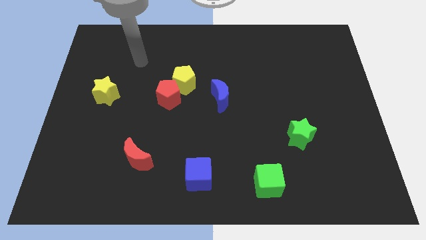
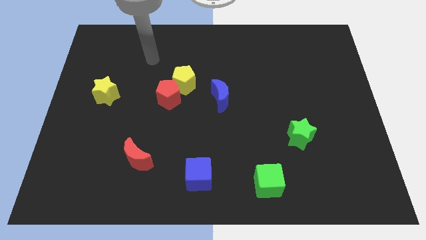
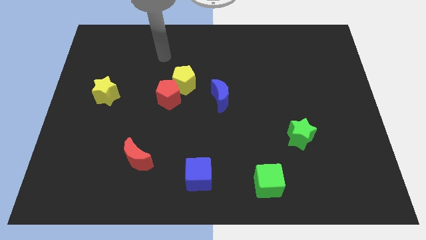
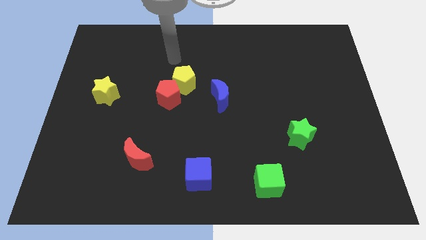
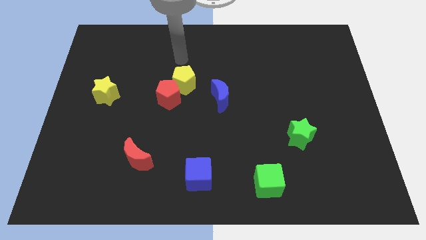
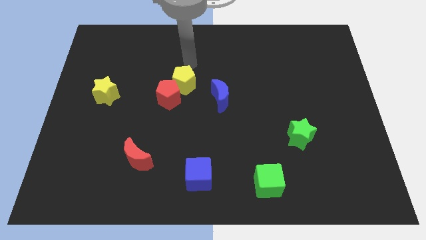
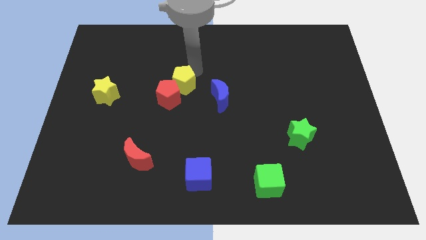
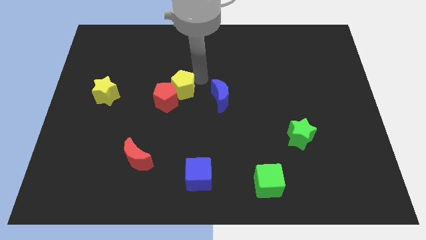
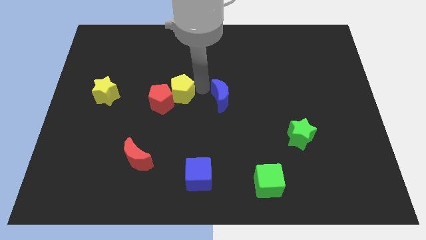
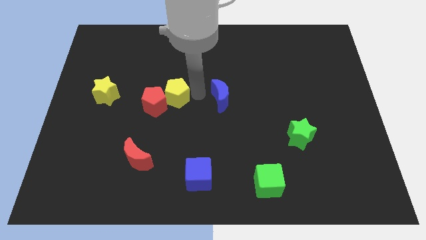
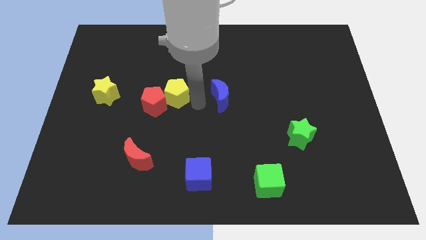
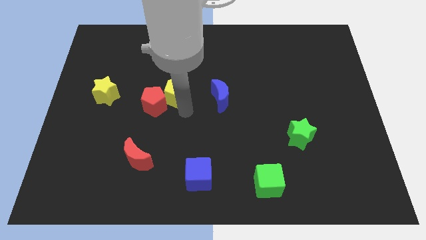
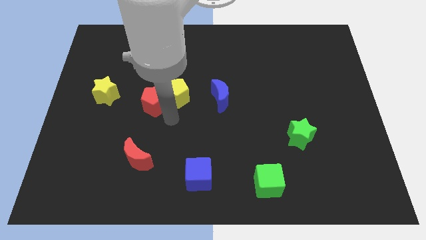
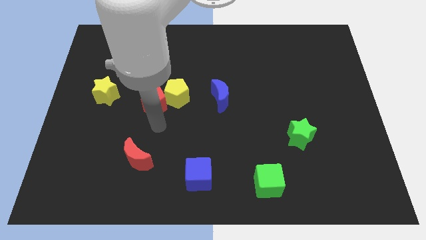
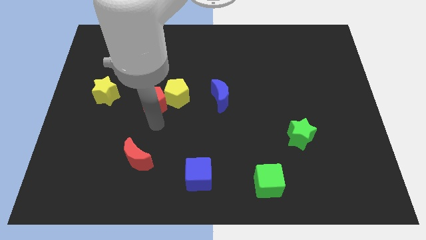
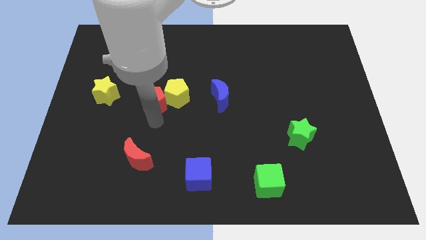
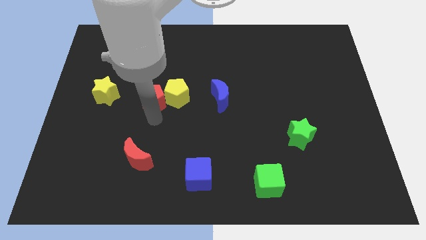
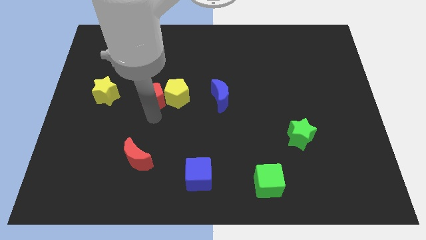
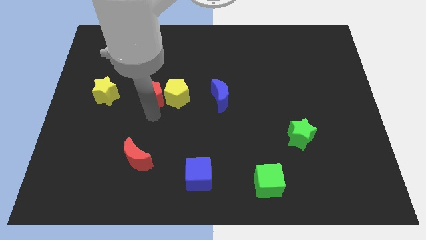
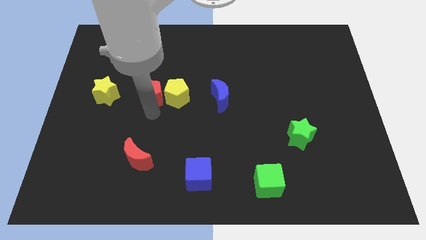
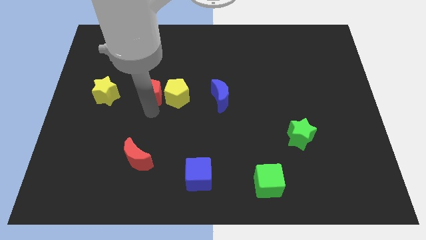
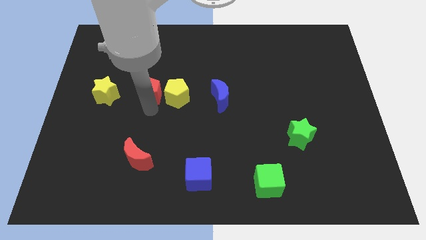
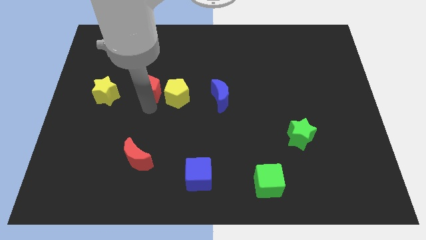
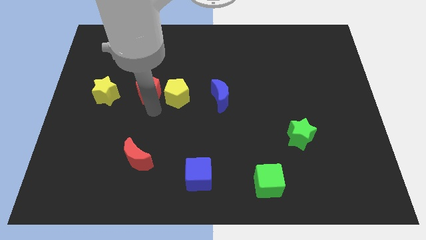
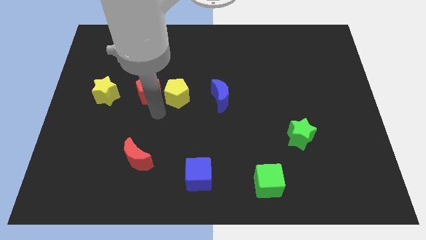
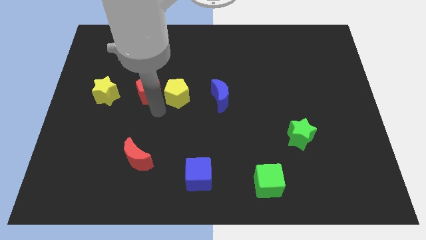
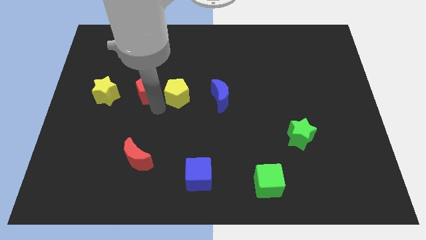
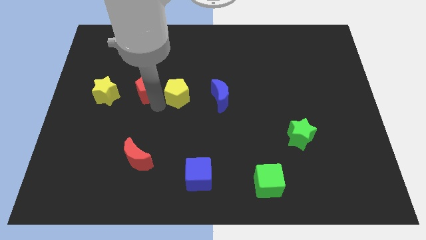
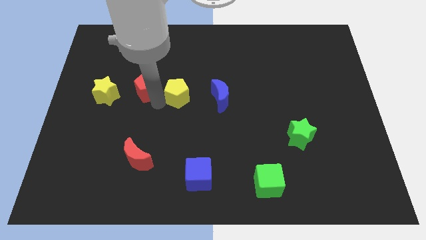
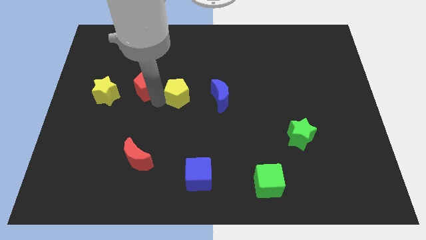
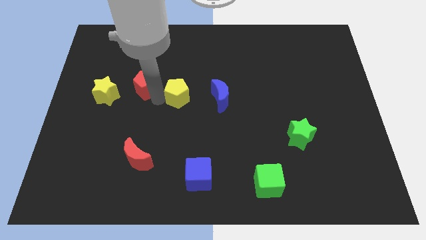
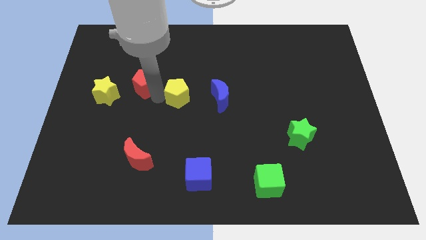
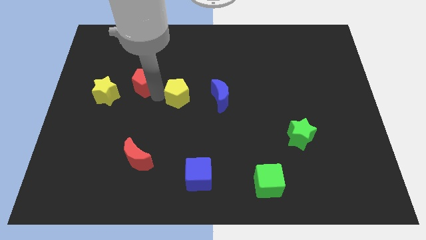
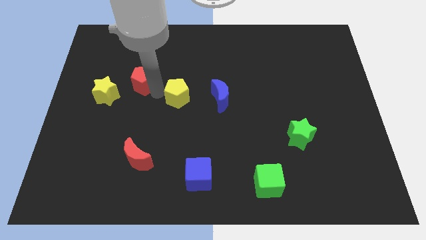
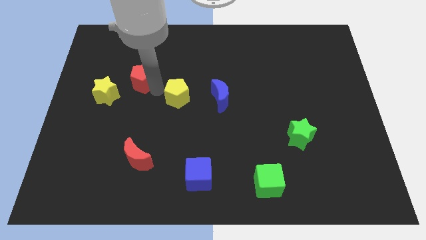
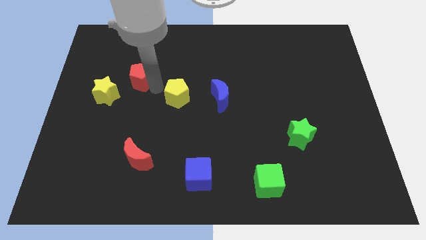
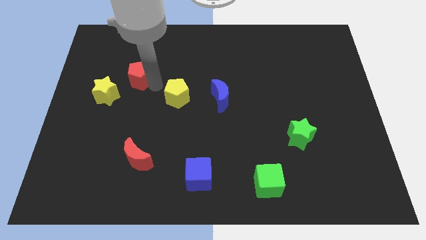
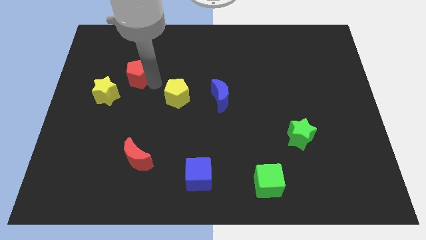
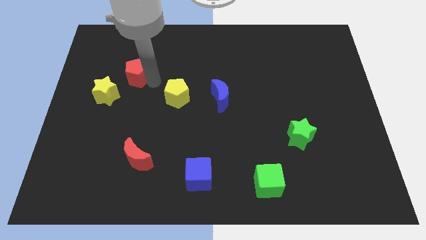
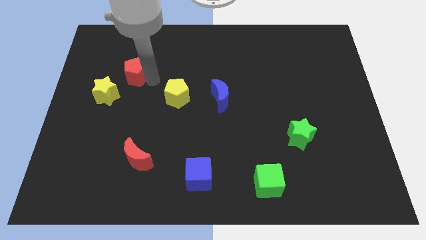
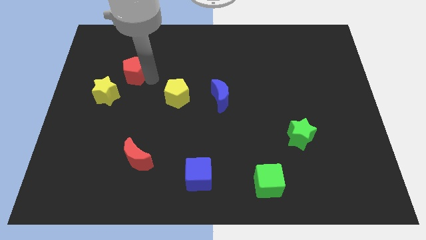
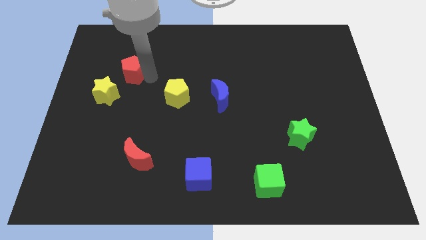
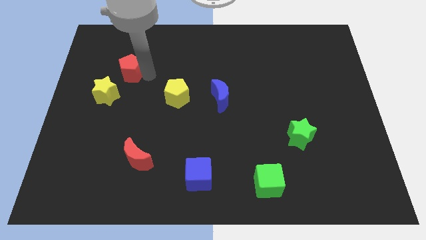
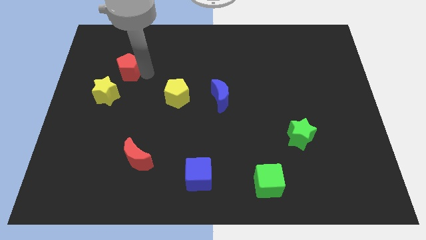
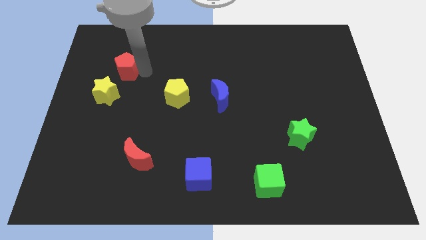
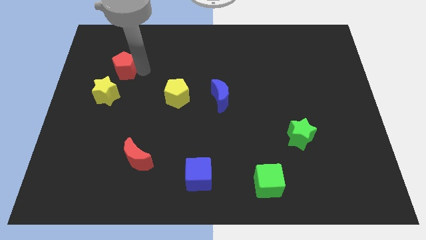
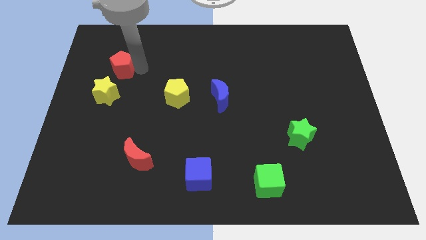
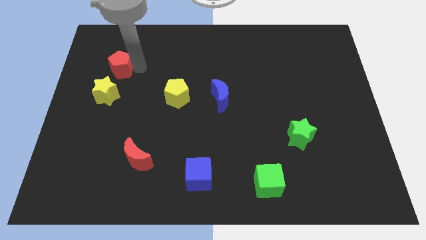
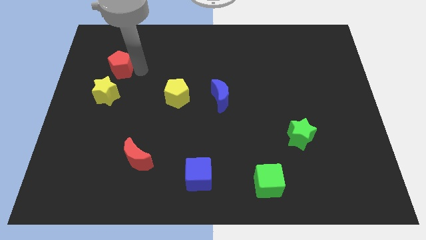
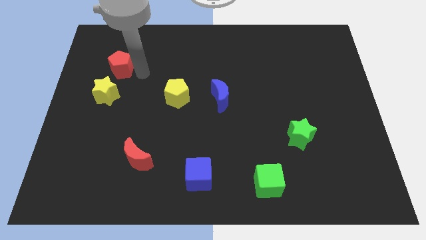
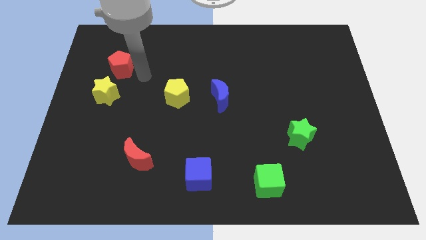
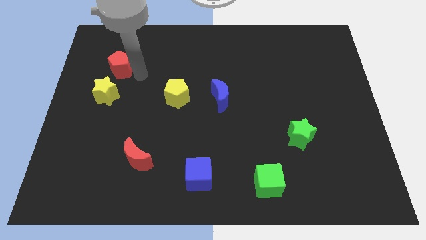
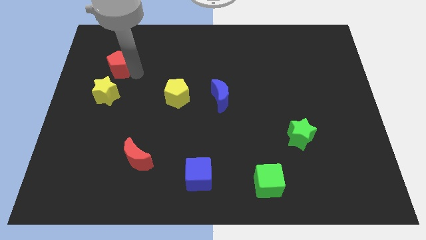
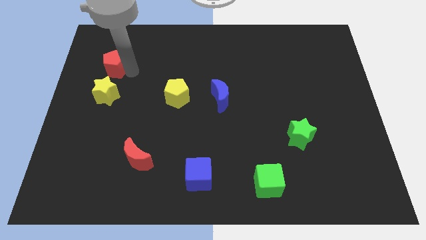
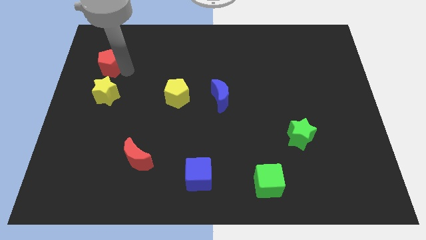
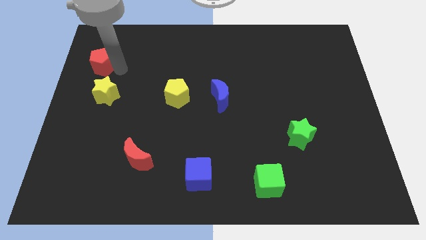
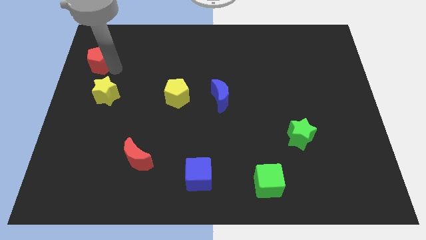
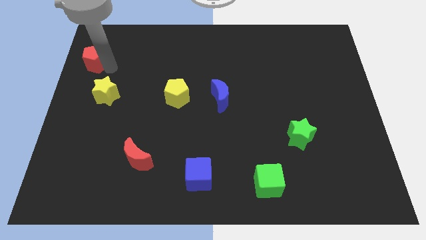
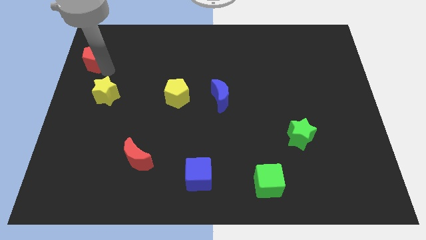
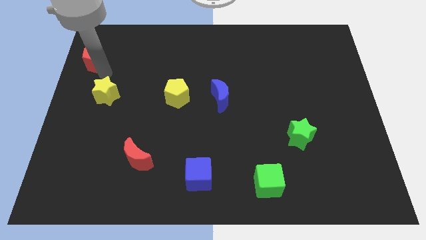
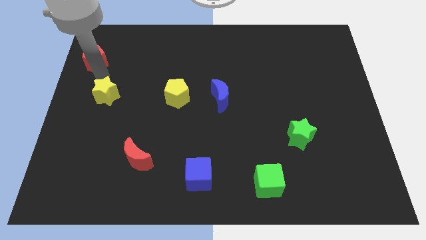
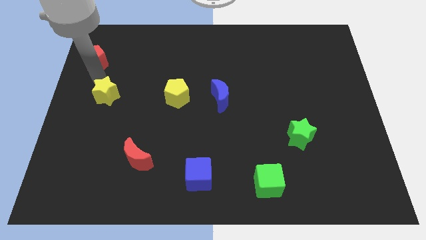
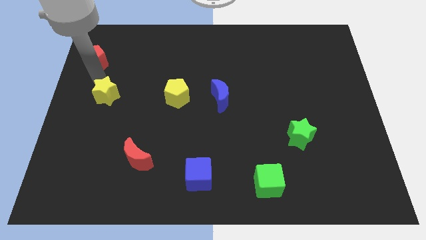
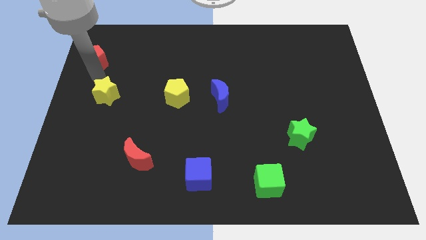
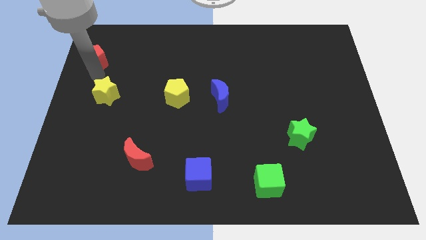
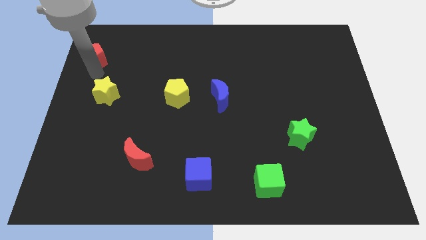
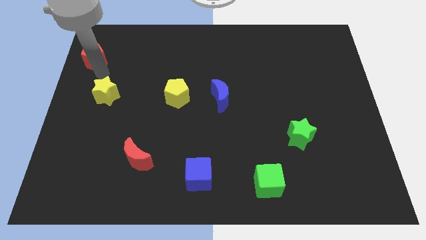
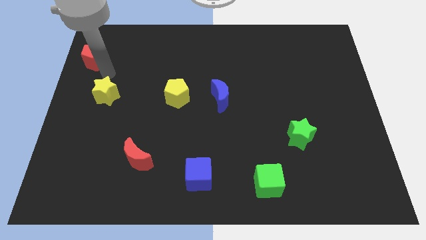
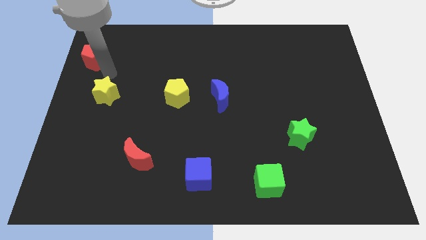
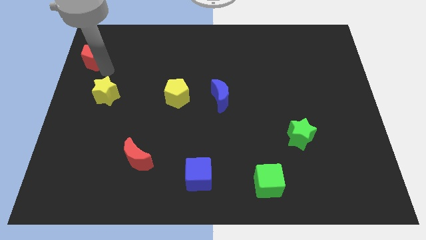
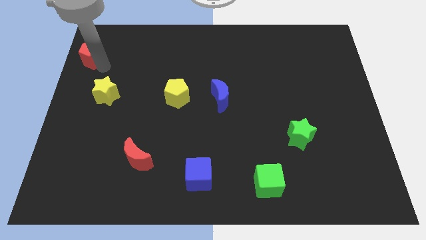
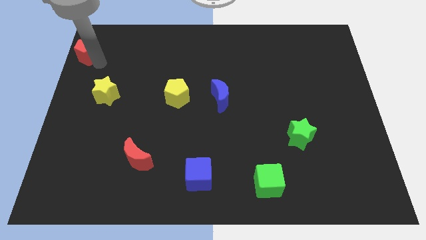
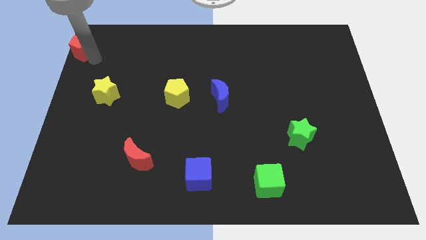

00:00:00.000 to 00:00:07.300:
push the red pentagon to the top left of the board
